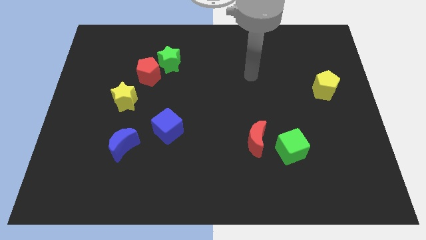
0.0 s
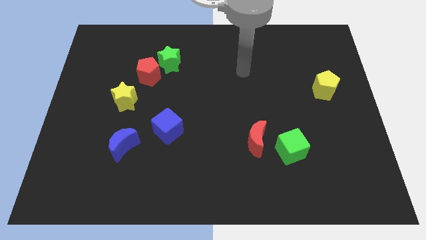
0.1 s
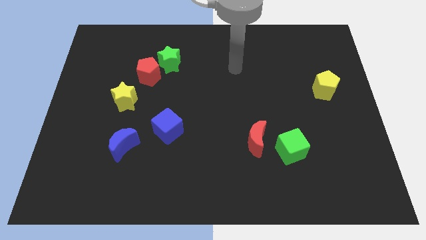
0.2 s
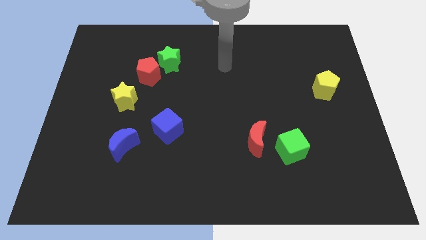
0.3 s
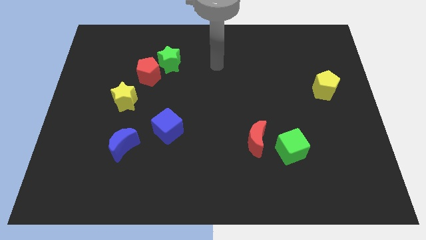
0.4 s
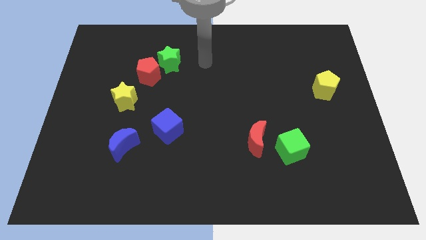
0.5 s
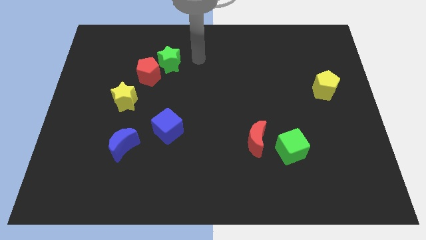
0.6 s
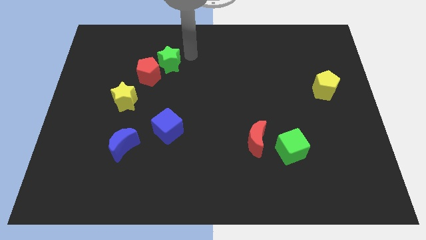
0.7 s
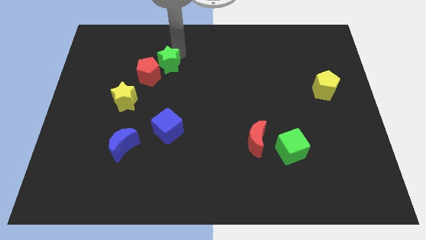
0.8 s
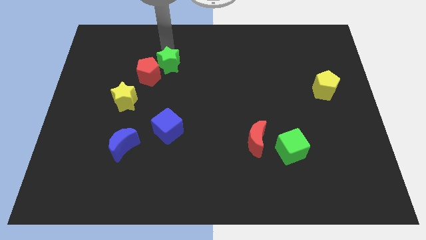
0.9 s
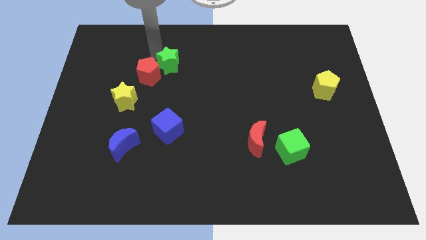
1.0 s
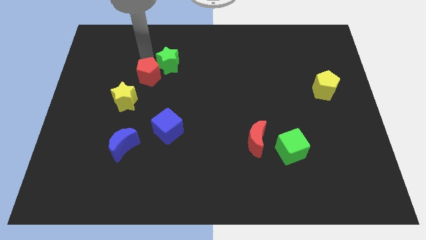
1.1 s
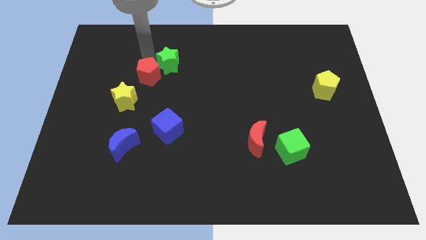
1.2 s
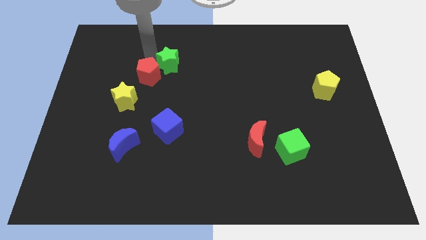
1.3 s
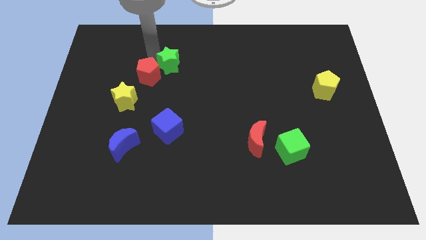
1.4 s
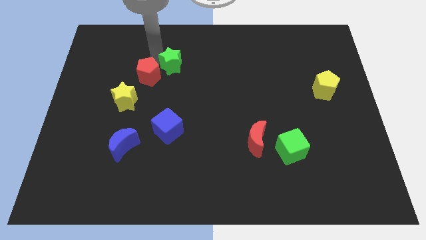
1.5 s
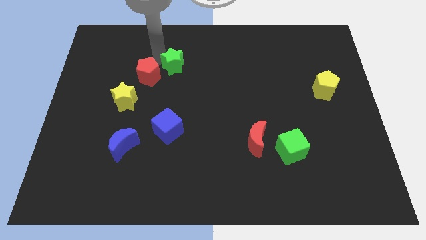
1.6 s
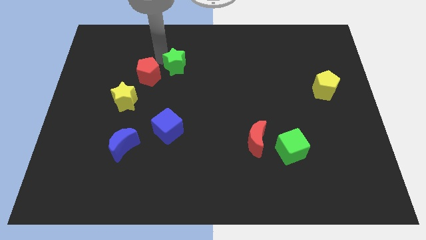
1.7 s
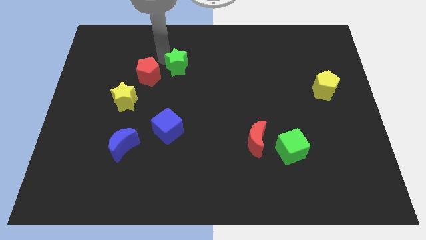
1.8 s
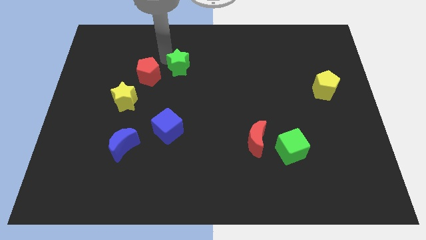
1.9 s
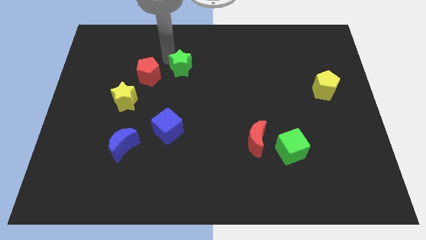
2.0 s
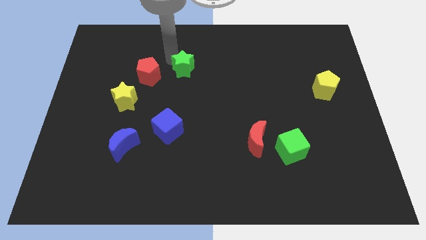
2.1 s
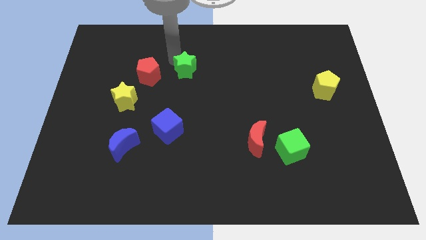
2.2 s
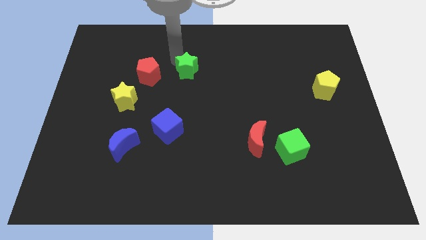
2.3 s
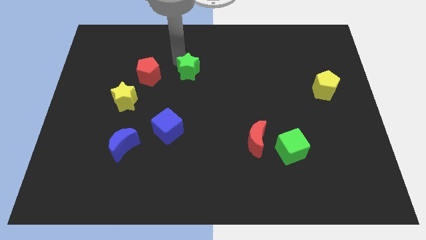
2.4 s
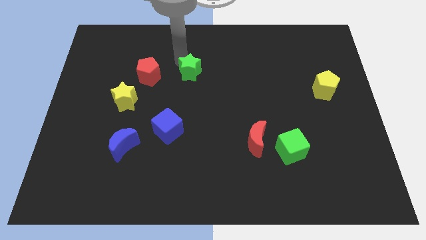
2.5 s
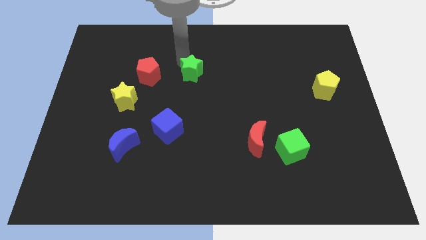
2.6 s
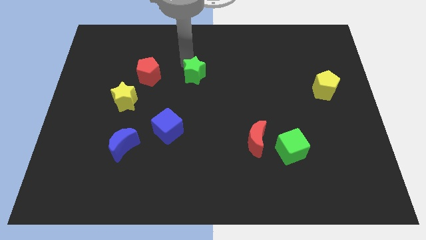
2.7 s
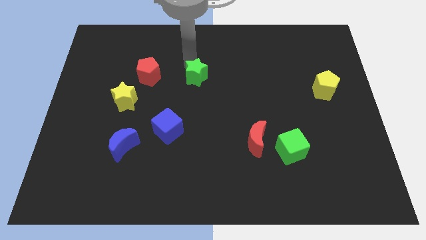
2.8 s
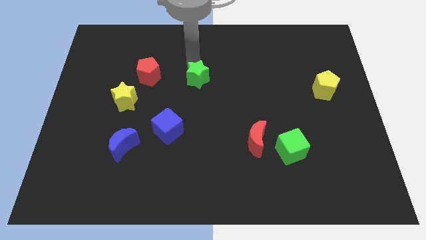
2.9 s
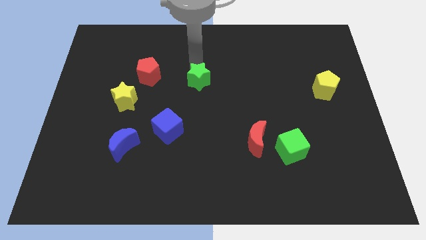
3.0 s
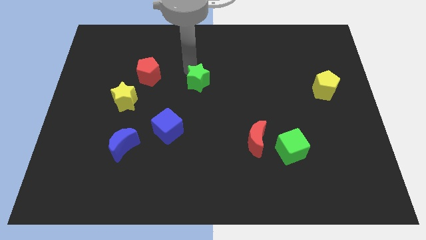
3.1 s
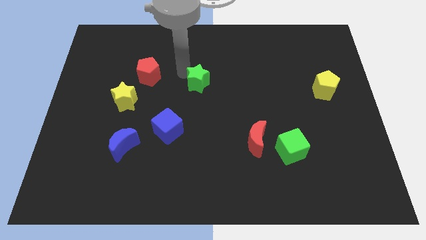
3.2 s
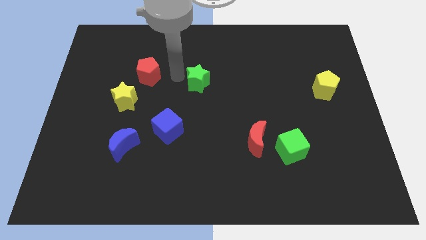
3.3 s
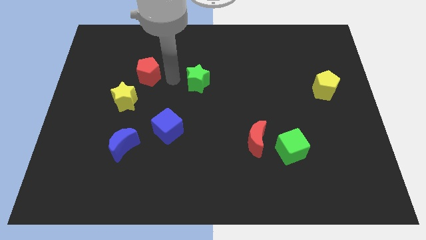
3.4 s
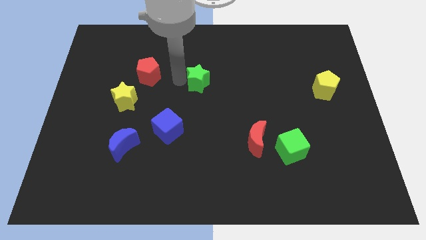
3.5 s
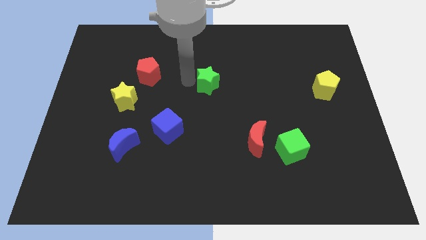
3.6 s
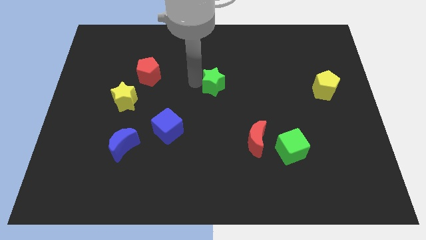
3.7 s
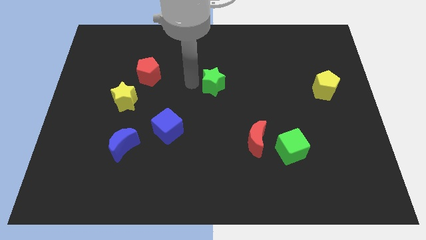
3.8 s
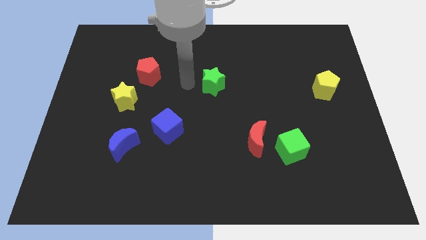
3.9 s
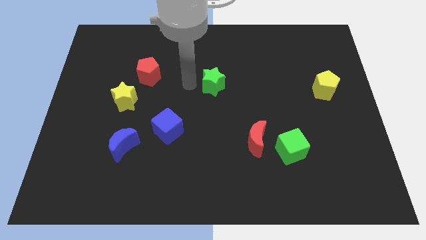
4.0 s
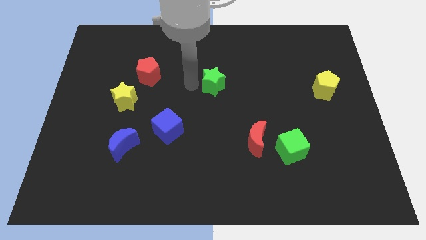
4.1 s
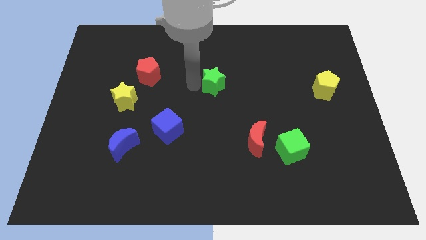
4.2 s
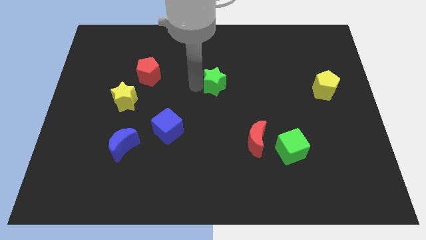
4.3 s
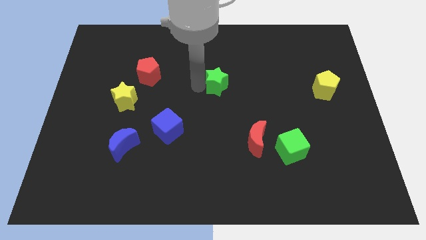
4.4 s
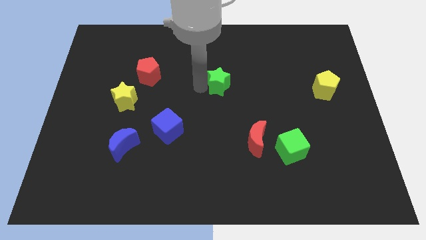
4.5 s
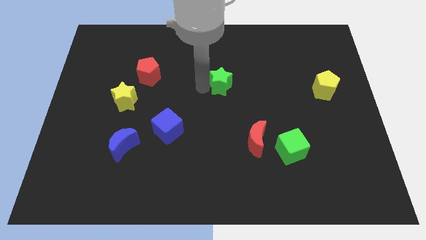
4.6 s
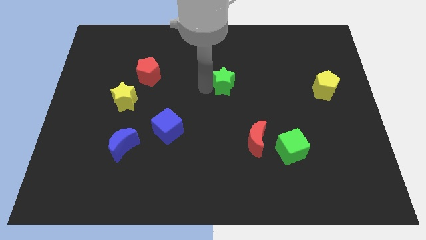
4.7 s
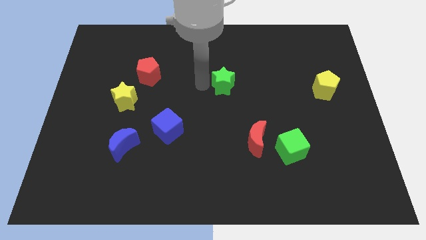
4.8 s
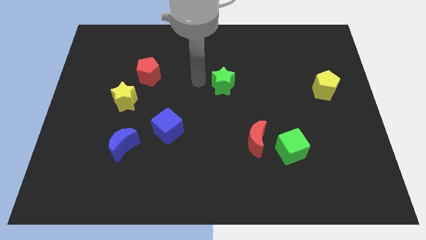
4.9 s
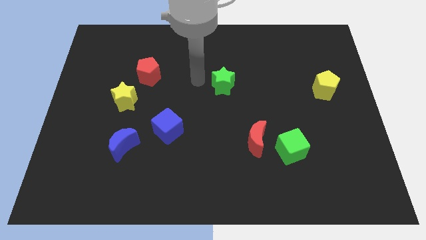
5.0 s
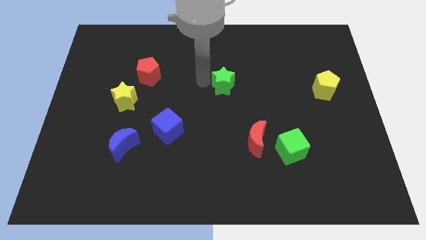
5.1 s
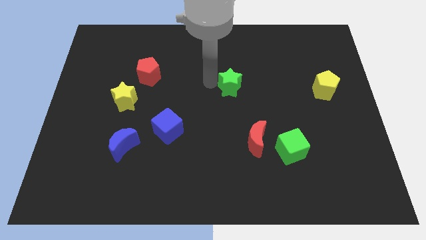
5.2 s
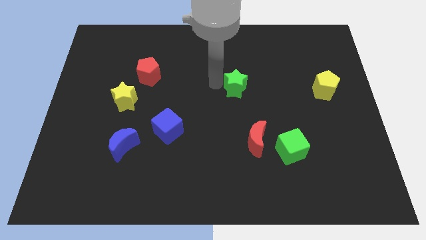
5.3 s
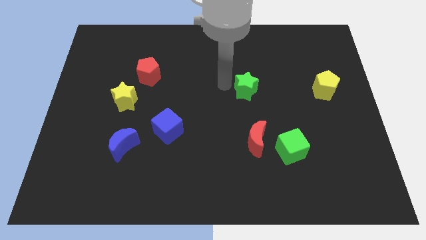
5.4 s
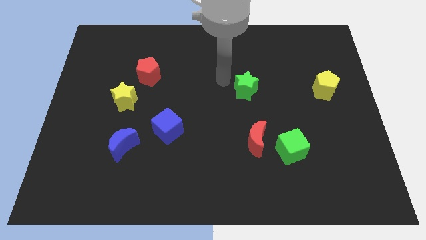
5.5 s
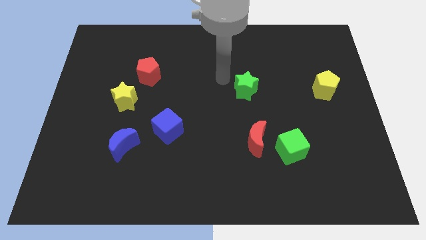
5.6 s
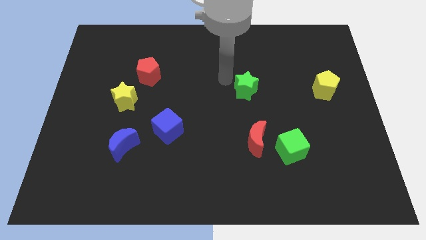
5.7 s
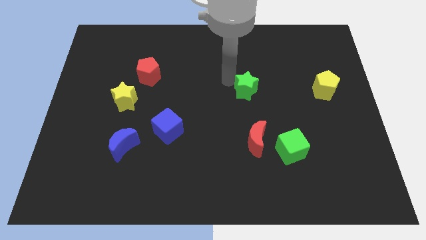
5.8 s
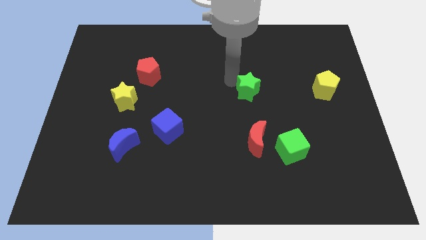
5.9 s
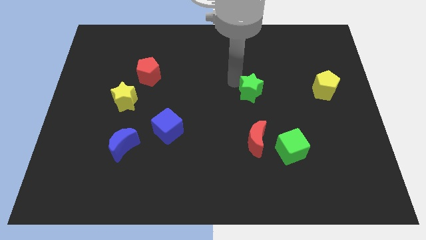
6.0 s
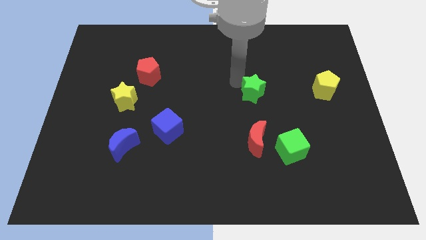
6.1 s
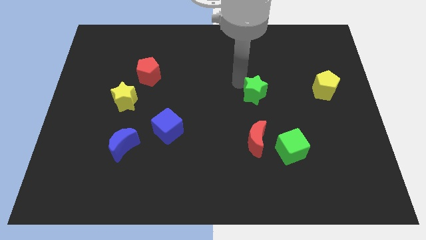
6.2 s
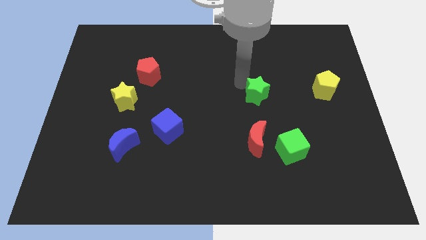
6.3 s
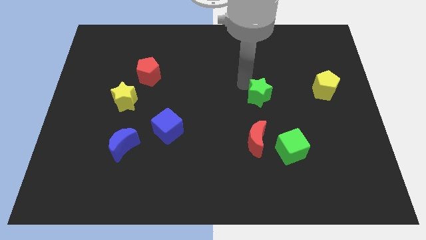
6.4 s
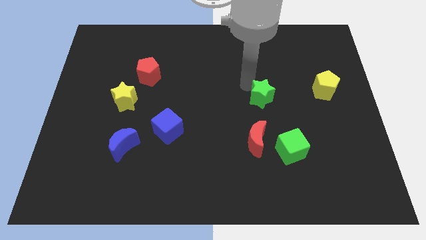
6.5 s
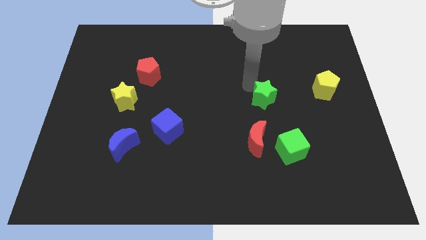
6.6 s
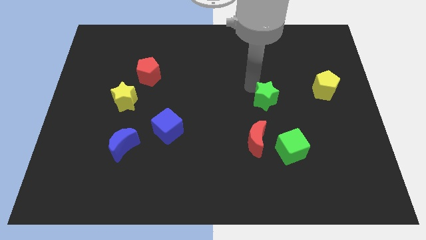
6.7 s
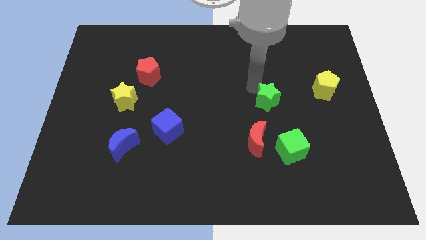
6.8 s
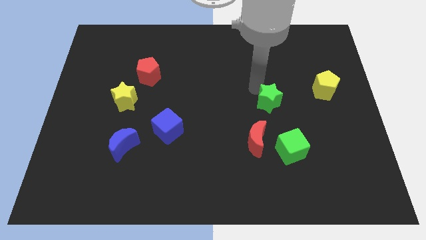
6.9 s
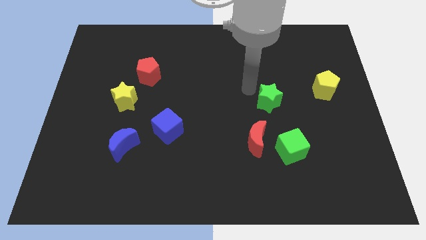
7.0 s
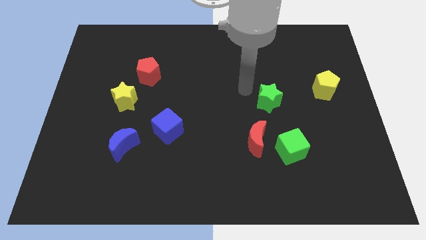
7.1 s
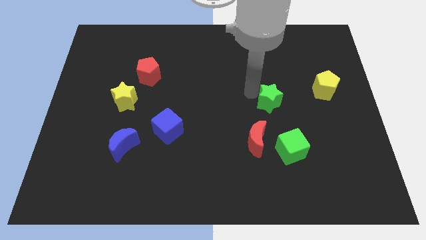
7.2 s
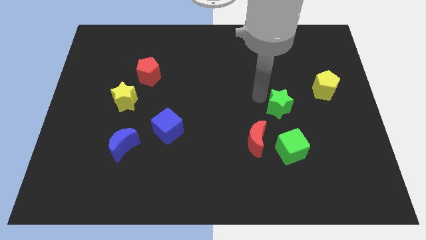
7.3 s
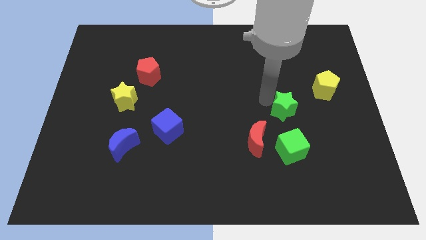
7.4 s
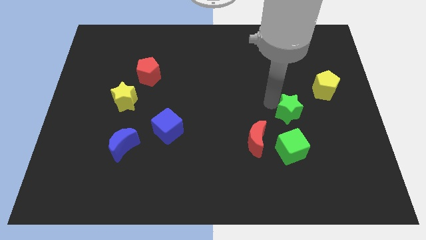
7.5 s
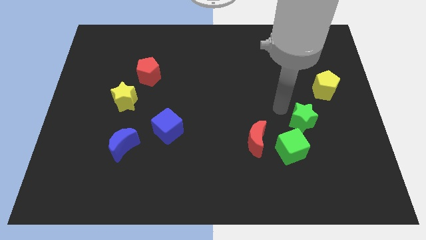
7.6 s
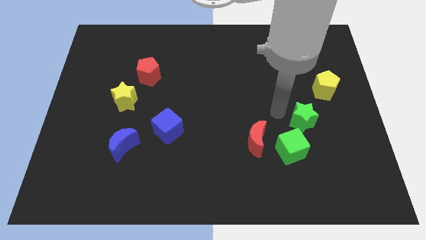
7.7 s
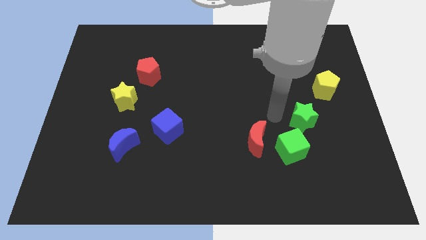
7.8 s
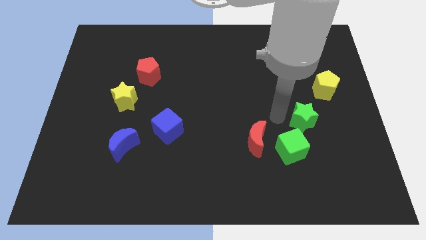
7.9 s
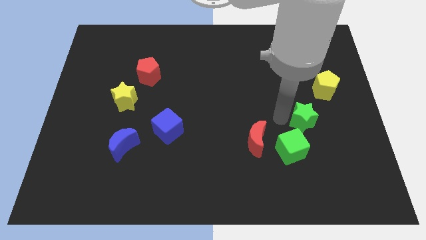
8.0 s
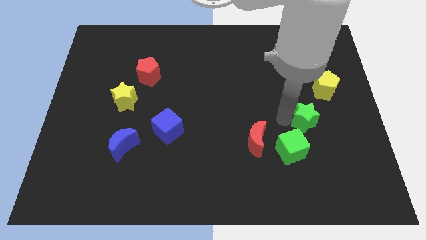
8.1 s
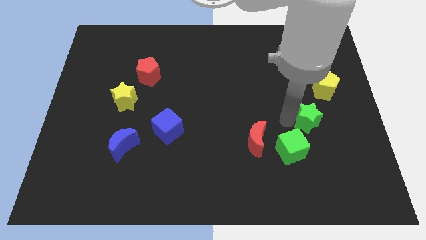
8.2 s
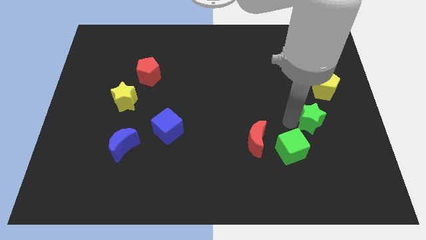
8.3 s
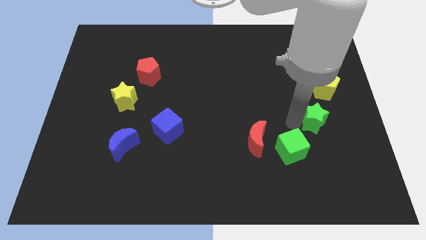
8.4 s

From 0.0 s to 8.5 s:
move the green star below the yellow pentagon
